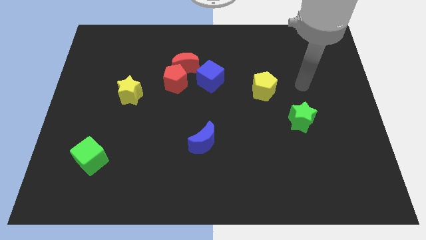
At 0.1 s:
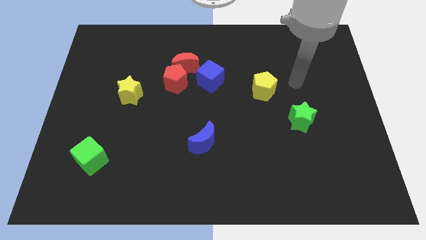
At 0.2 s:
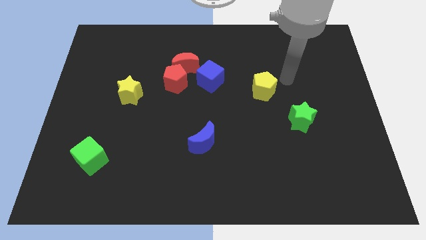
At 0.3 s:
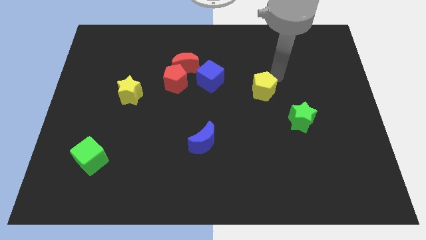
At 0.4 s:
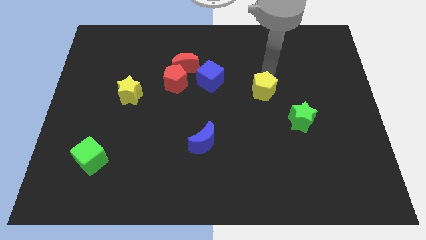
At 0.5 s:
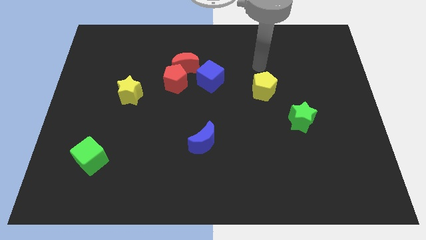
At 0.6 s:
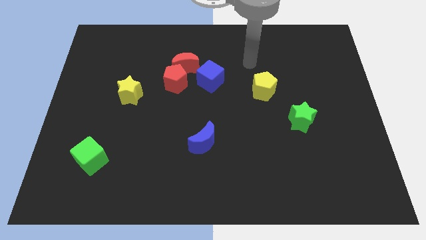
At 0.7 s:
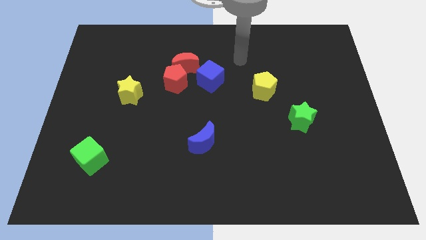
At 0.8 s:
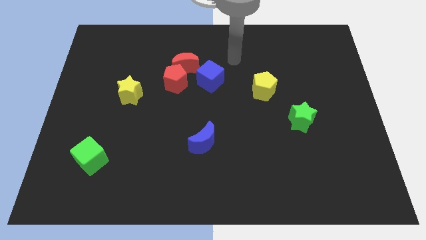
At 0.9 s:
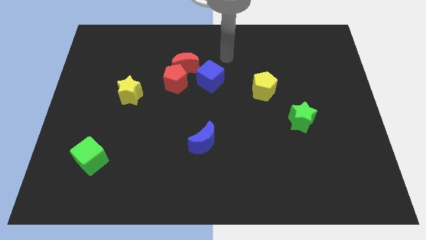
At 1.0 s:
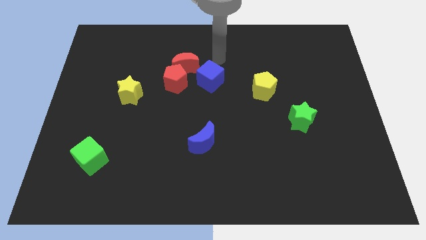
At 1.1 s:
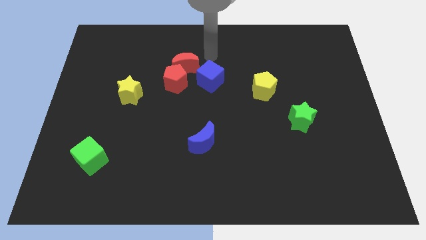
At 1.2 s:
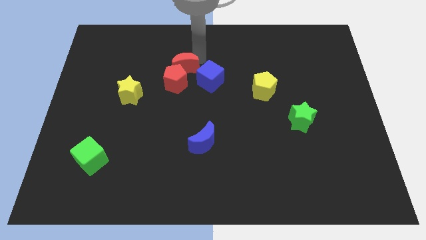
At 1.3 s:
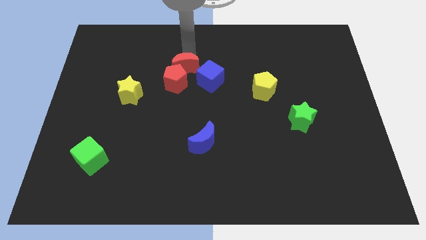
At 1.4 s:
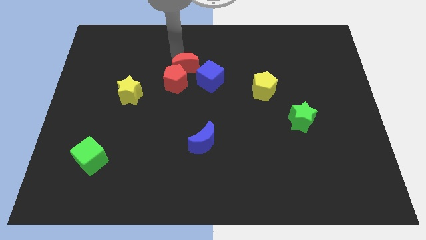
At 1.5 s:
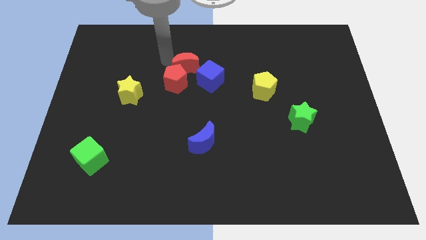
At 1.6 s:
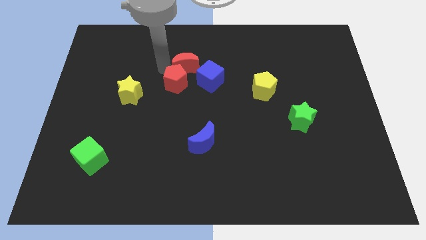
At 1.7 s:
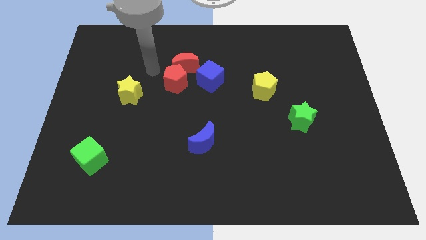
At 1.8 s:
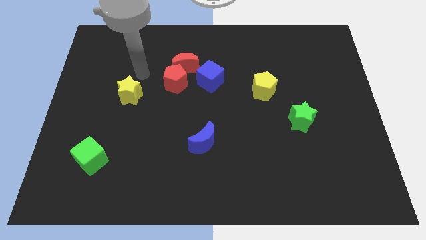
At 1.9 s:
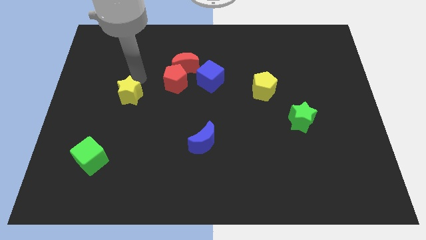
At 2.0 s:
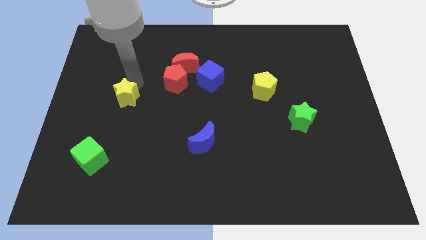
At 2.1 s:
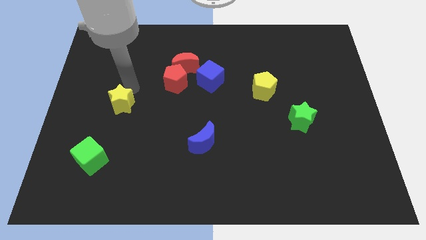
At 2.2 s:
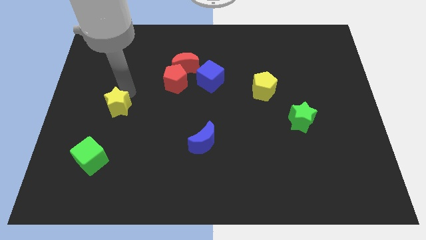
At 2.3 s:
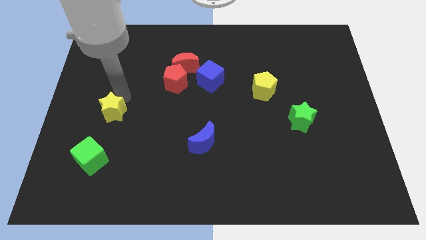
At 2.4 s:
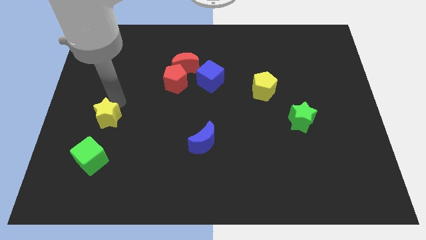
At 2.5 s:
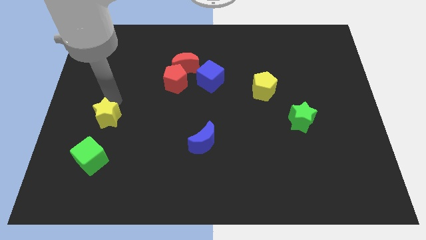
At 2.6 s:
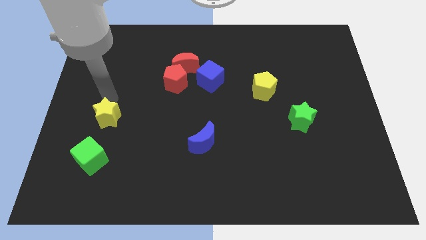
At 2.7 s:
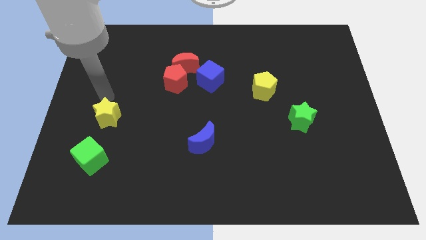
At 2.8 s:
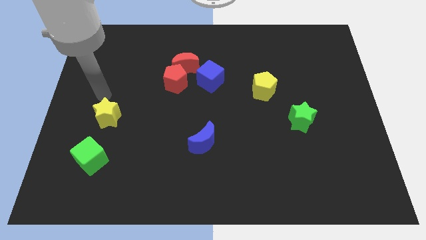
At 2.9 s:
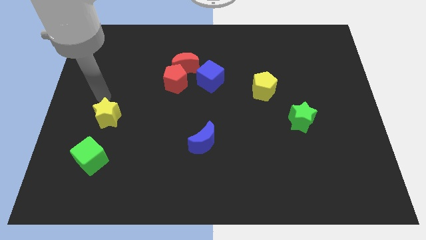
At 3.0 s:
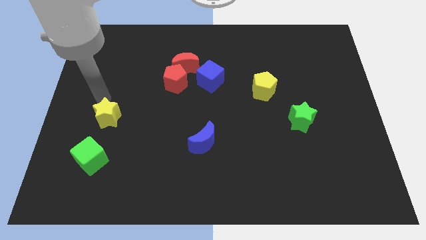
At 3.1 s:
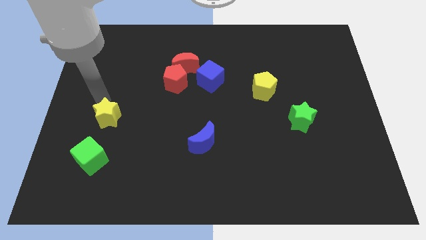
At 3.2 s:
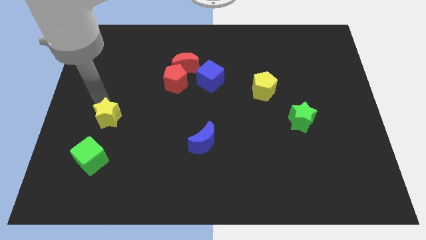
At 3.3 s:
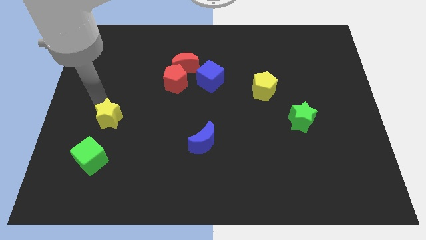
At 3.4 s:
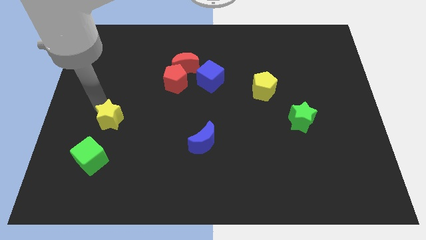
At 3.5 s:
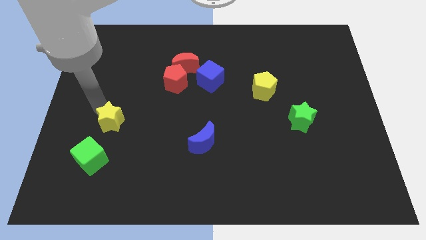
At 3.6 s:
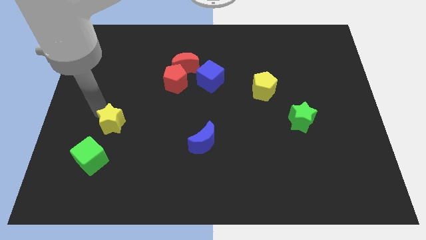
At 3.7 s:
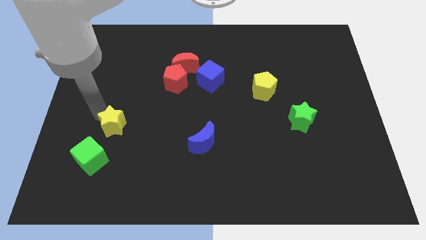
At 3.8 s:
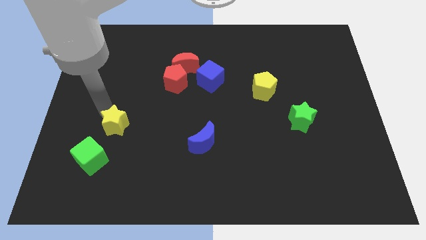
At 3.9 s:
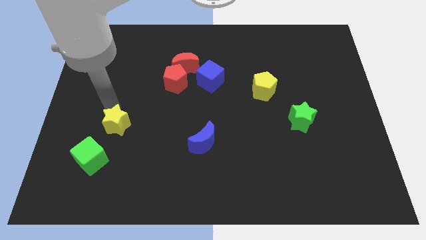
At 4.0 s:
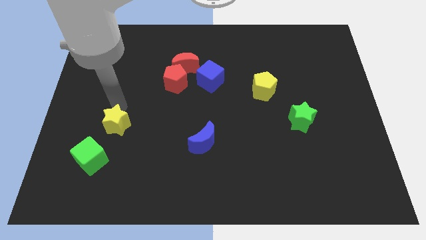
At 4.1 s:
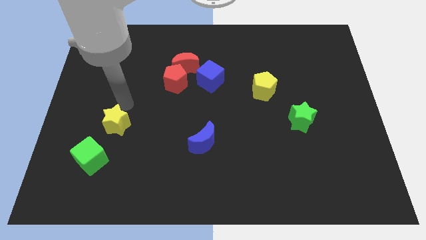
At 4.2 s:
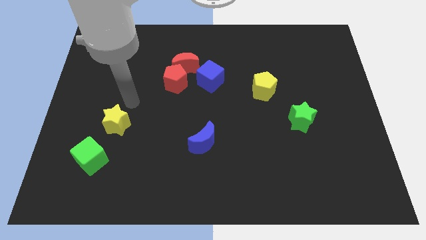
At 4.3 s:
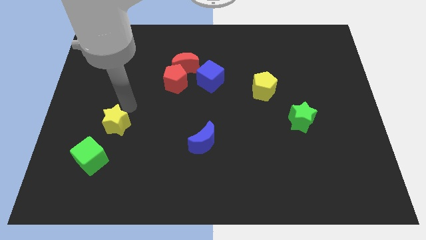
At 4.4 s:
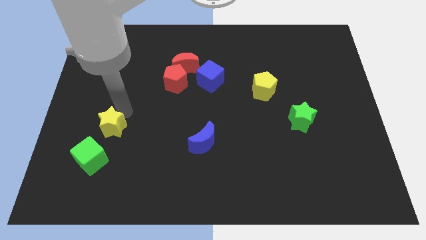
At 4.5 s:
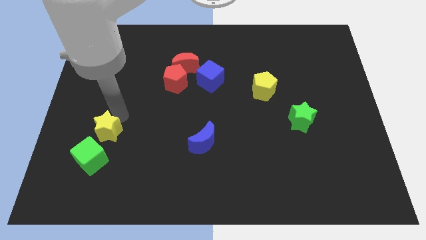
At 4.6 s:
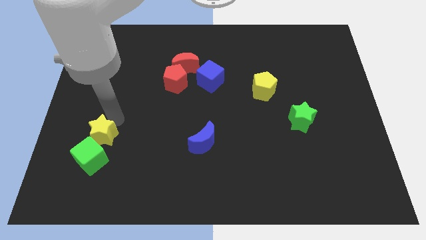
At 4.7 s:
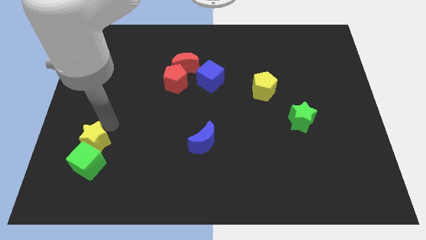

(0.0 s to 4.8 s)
move the yellow star close to the green cube

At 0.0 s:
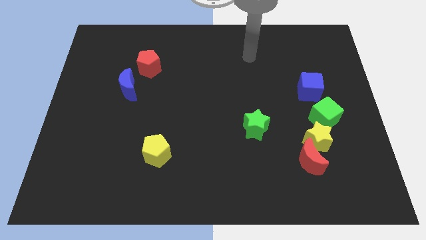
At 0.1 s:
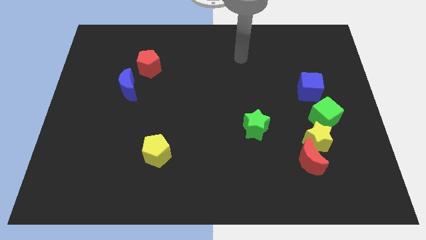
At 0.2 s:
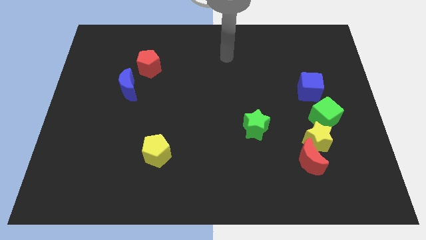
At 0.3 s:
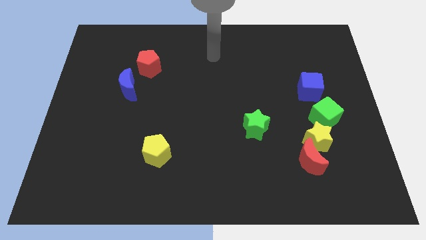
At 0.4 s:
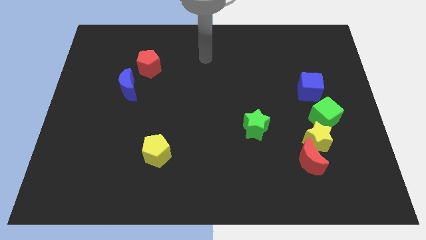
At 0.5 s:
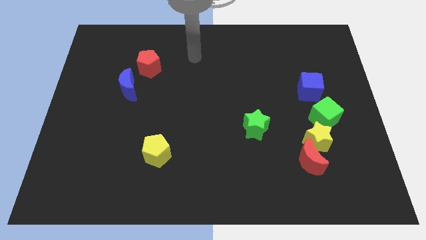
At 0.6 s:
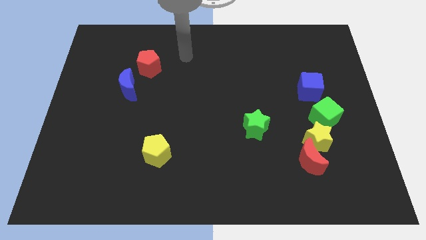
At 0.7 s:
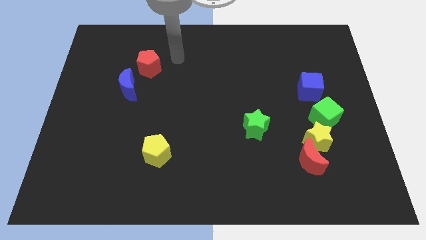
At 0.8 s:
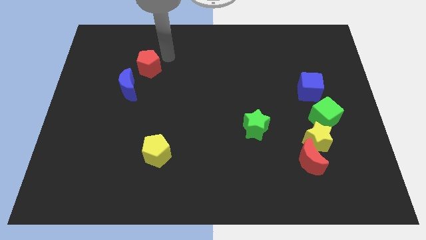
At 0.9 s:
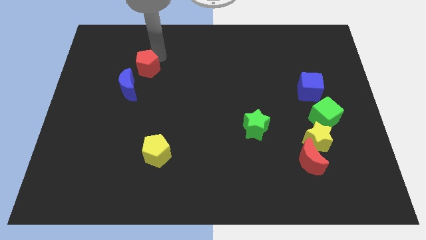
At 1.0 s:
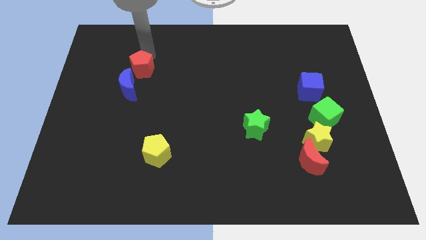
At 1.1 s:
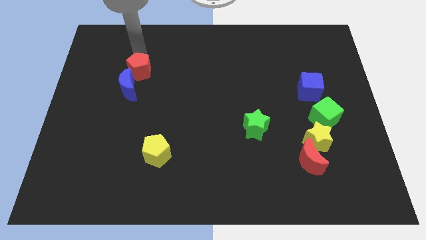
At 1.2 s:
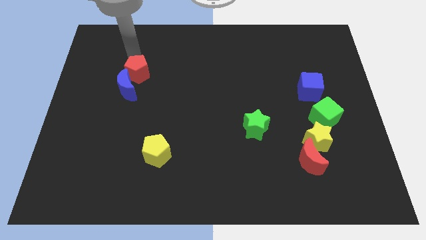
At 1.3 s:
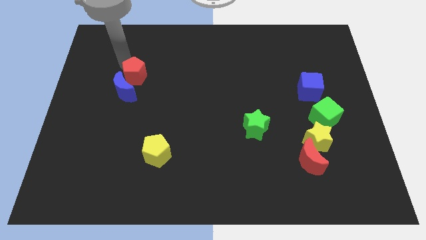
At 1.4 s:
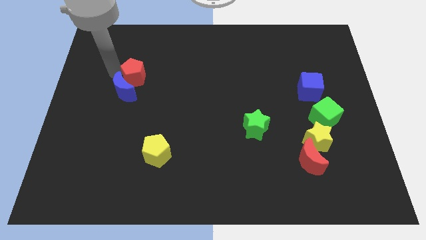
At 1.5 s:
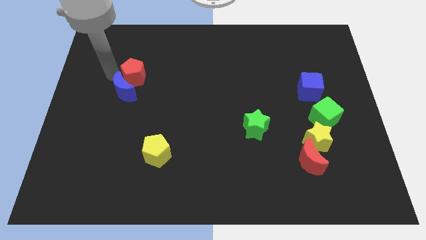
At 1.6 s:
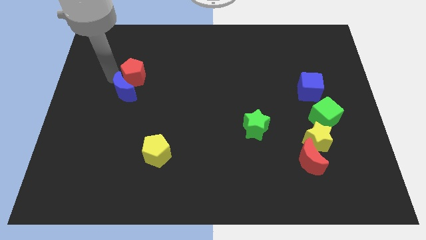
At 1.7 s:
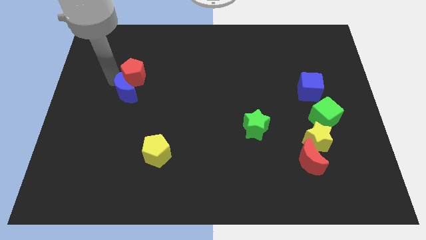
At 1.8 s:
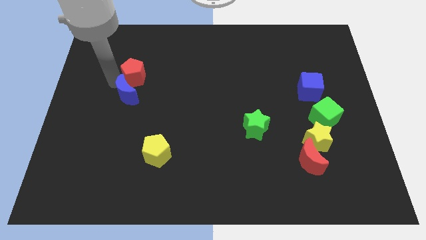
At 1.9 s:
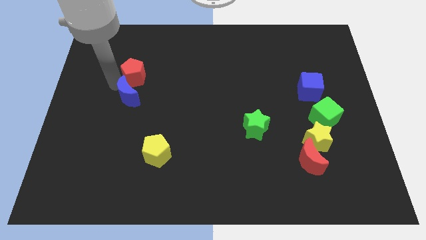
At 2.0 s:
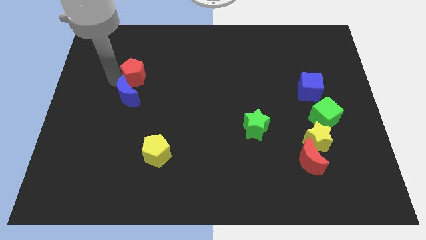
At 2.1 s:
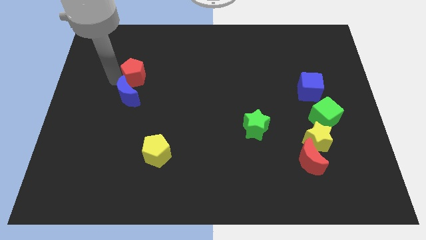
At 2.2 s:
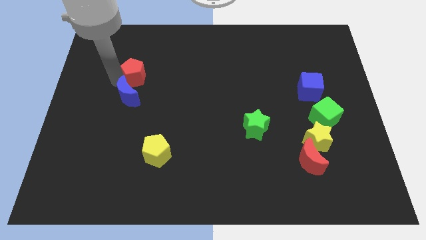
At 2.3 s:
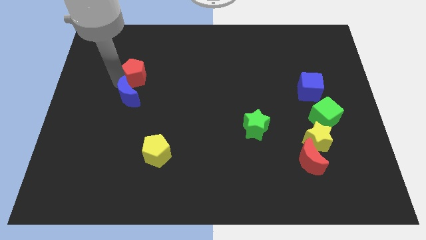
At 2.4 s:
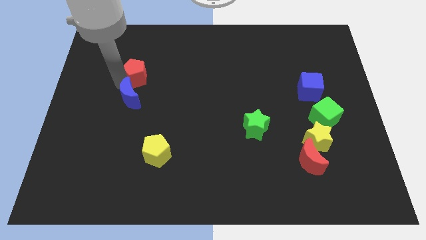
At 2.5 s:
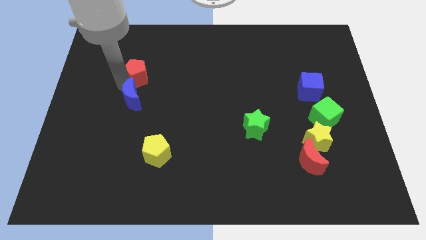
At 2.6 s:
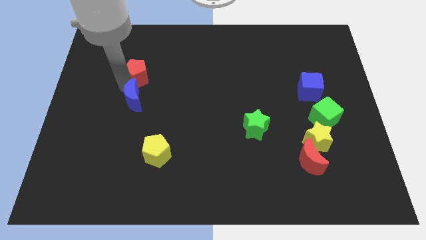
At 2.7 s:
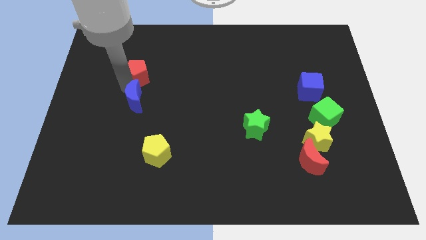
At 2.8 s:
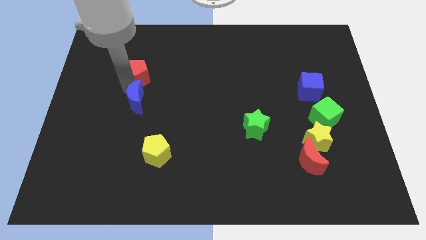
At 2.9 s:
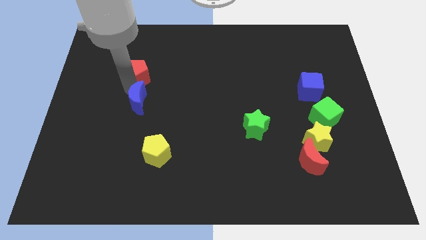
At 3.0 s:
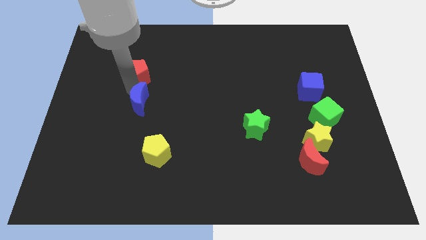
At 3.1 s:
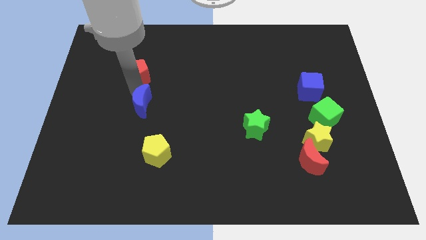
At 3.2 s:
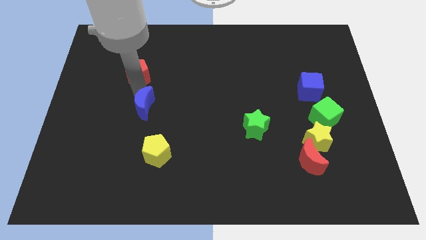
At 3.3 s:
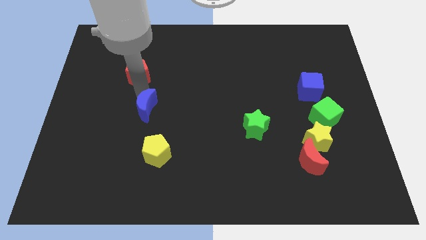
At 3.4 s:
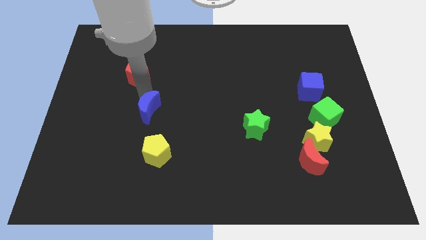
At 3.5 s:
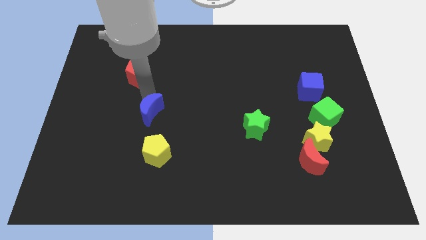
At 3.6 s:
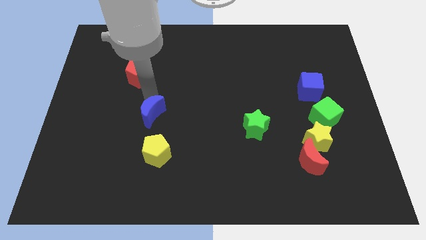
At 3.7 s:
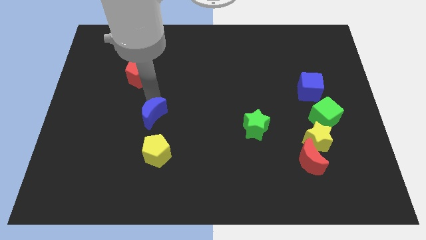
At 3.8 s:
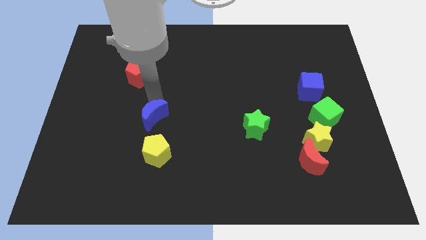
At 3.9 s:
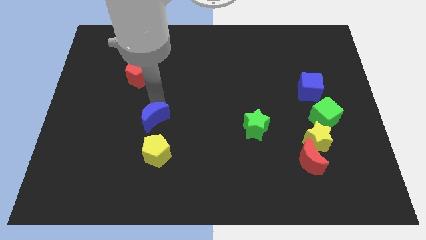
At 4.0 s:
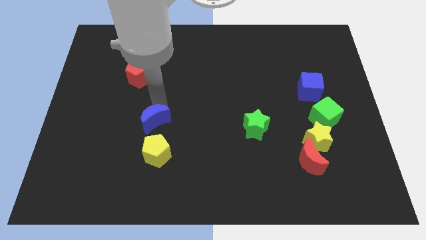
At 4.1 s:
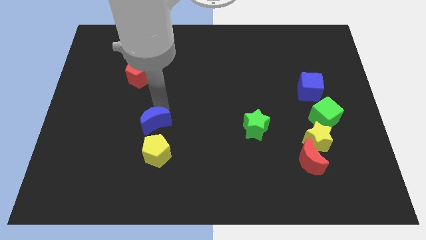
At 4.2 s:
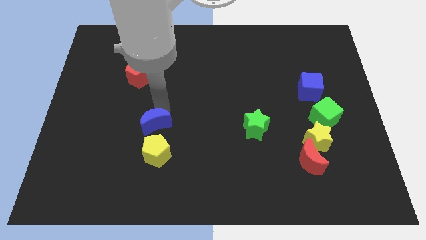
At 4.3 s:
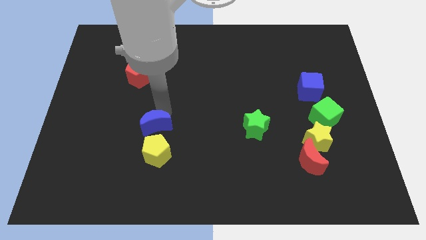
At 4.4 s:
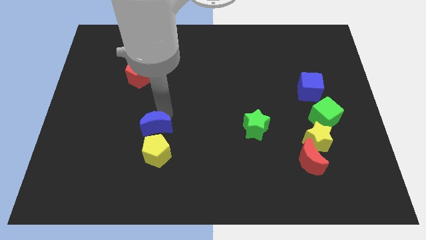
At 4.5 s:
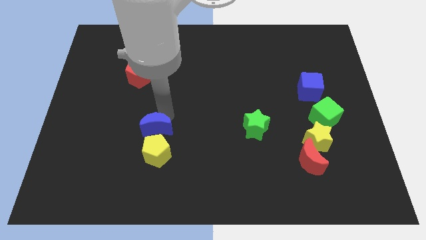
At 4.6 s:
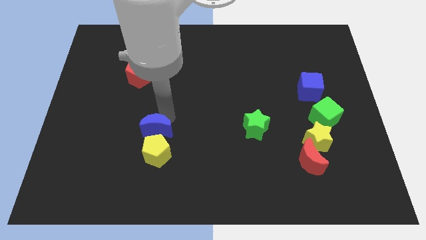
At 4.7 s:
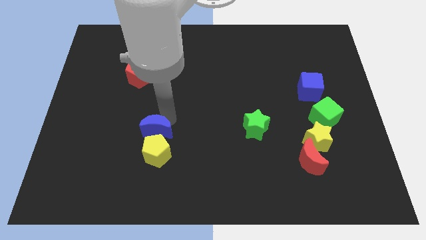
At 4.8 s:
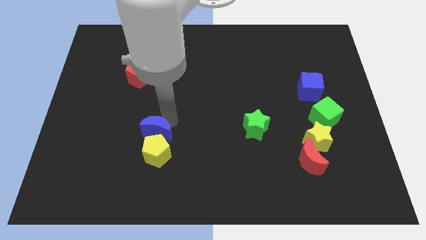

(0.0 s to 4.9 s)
push the blue moon next to the yellow pentagon
